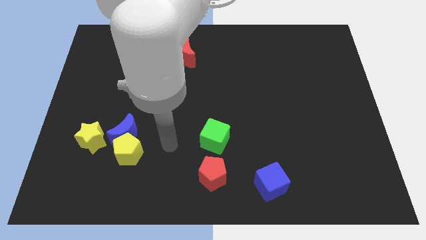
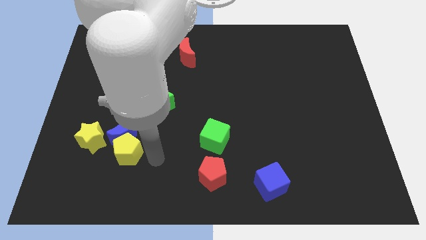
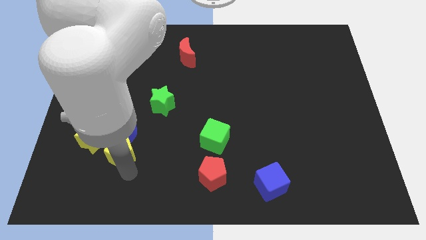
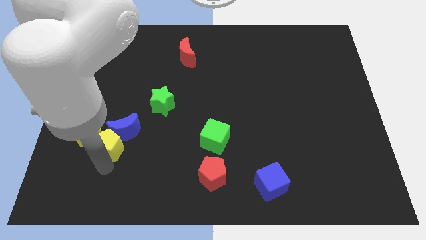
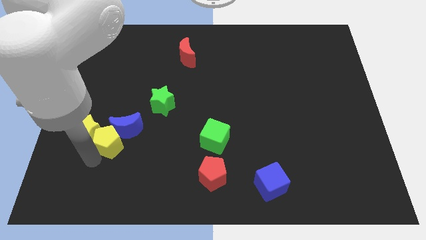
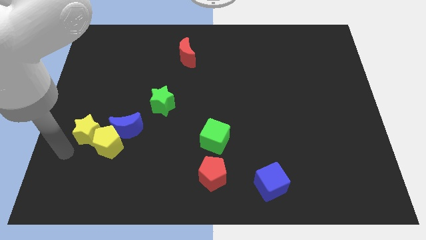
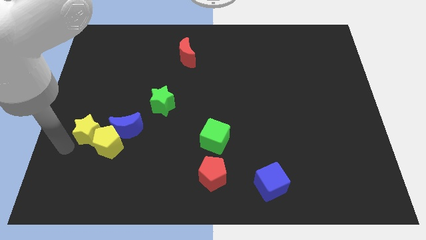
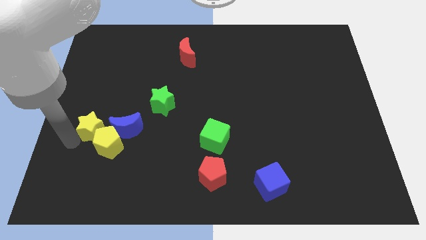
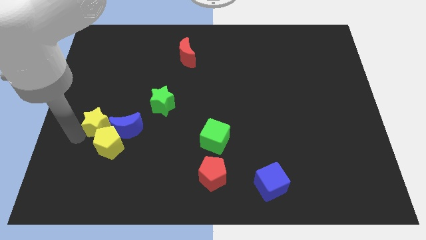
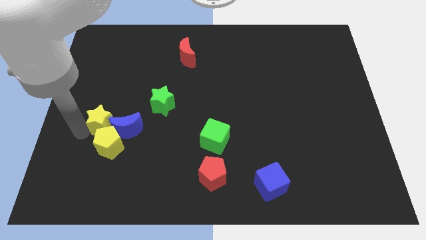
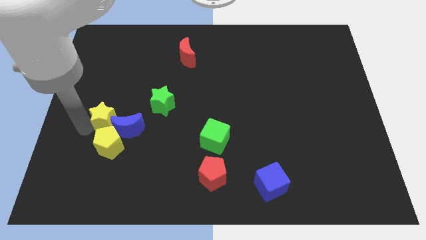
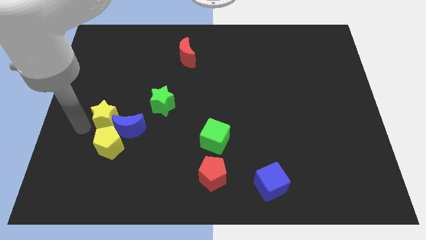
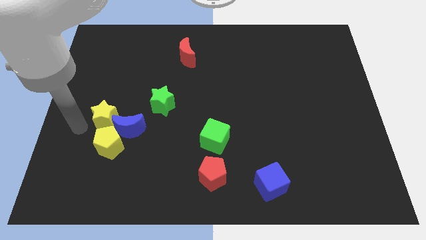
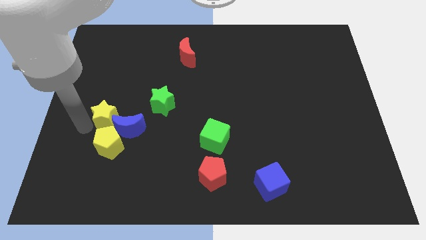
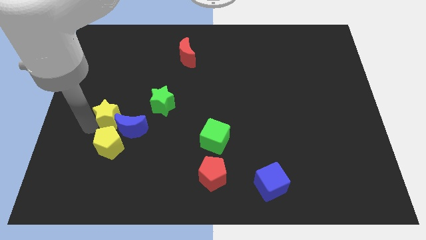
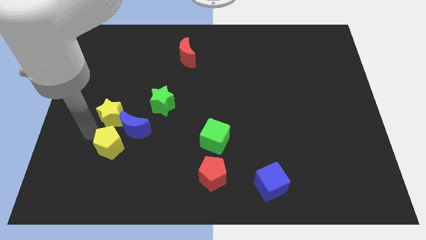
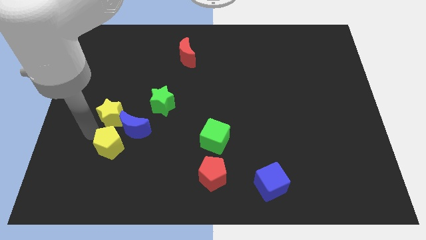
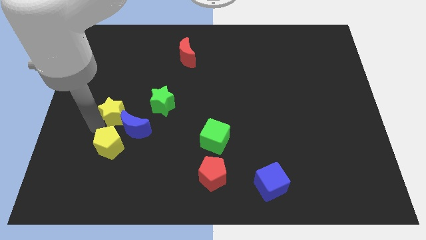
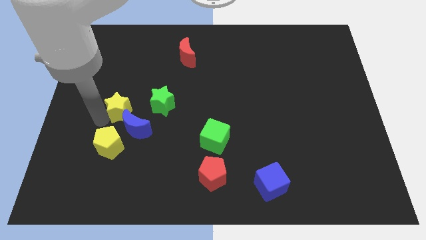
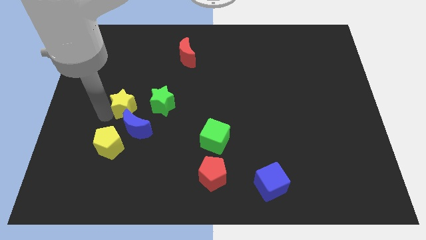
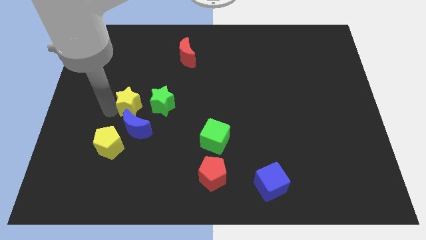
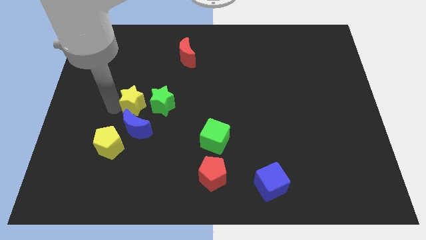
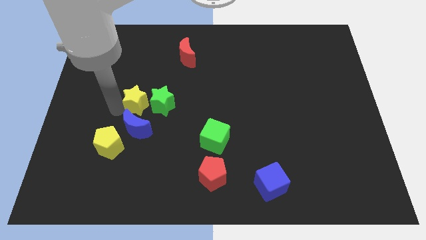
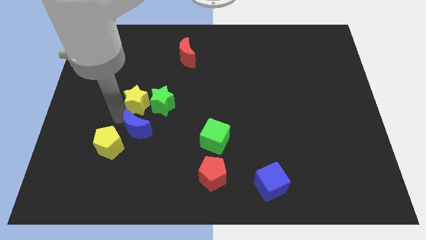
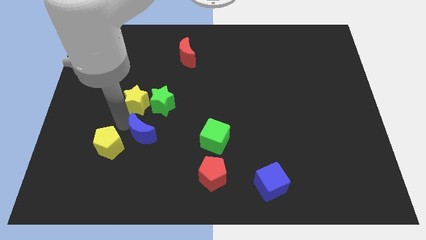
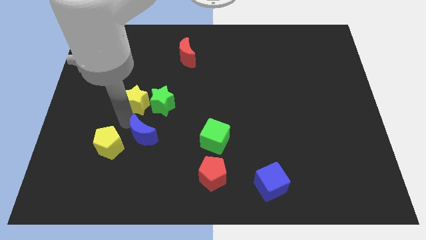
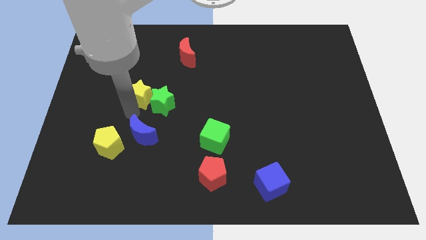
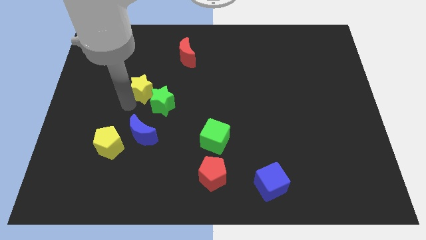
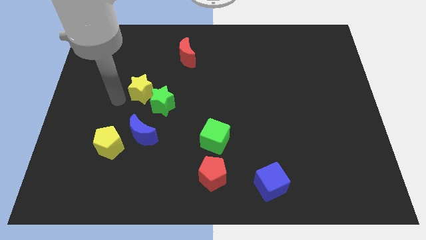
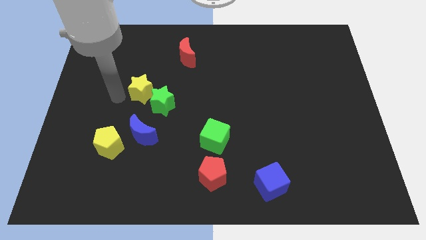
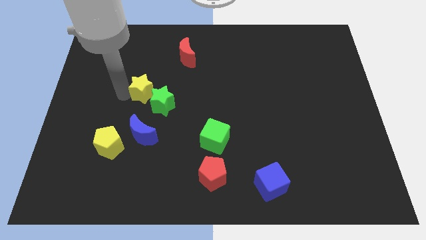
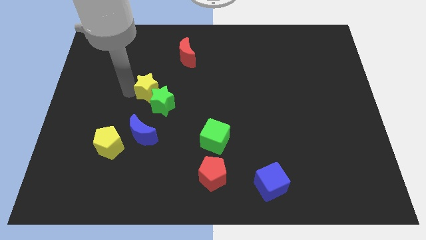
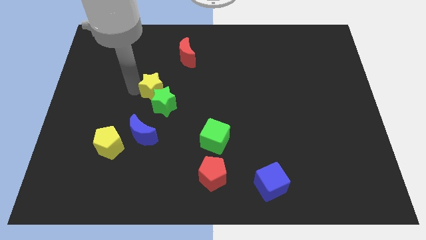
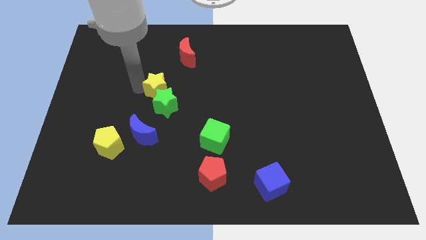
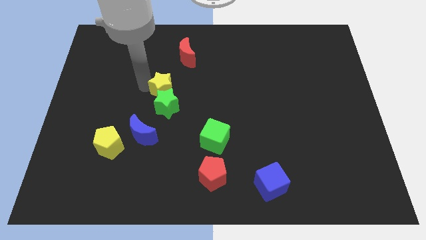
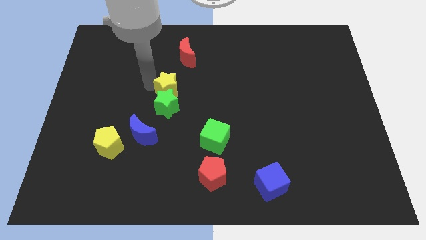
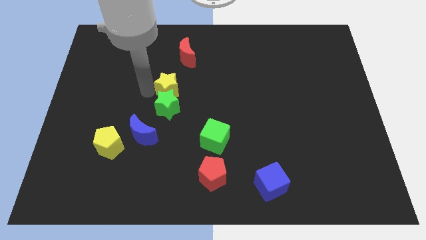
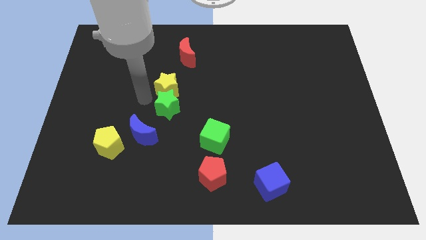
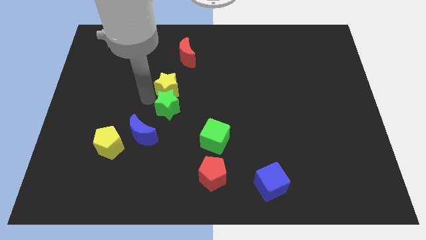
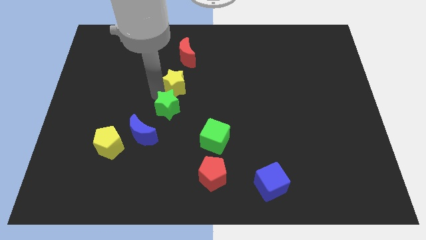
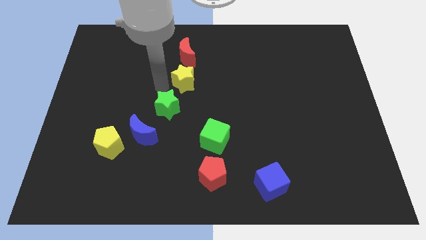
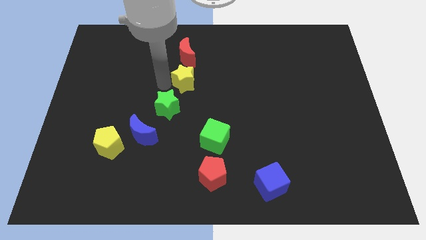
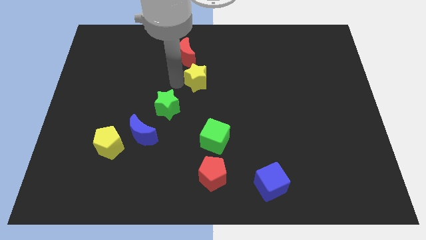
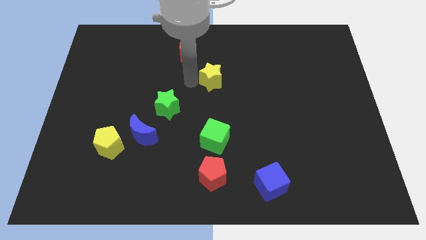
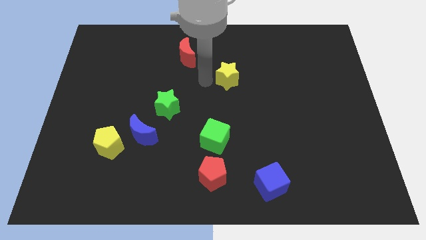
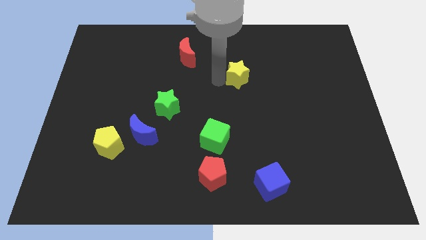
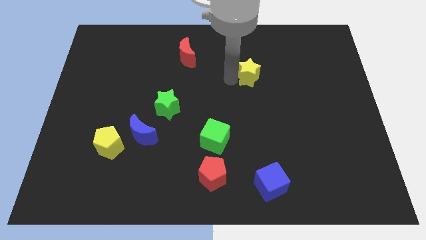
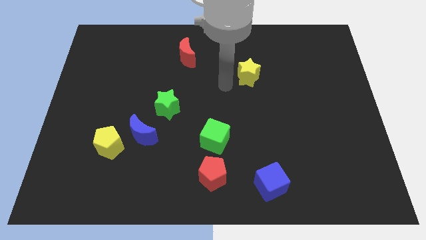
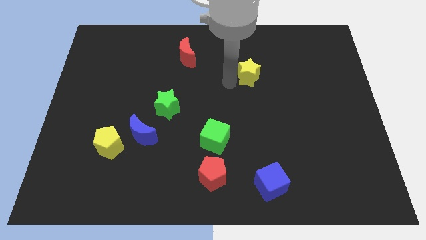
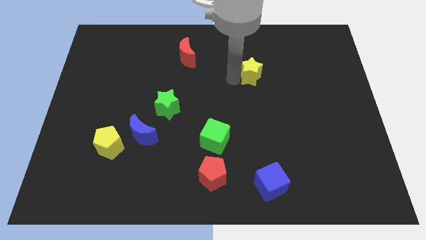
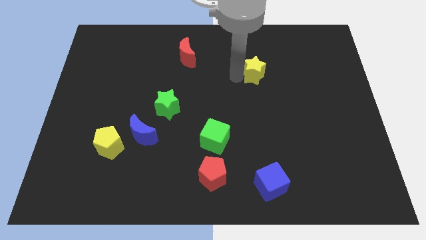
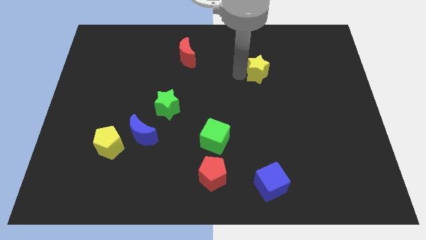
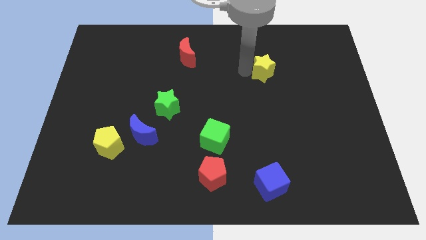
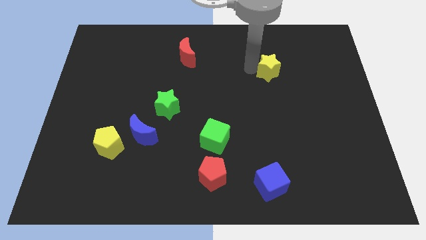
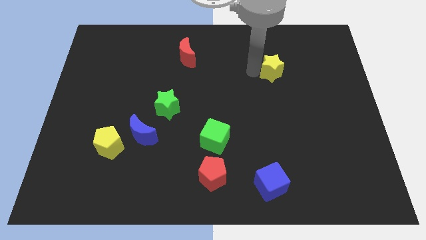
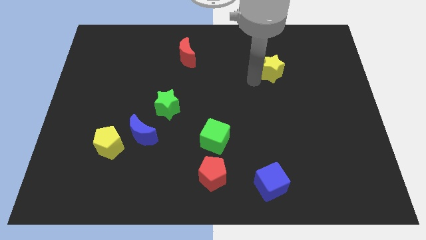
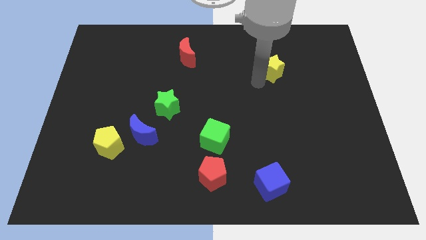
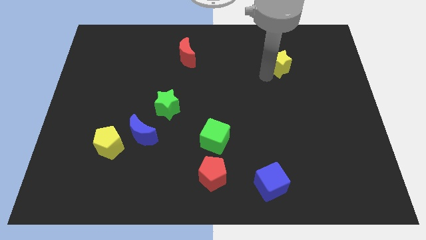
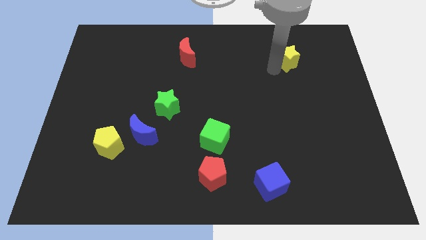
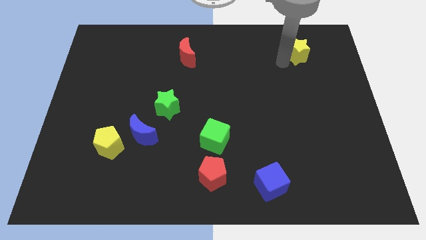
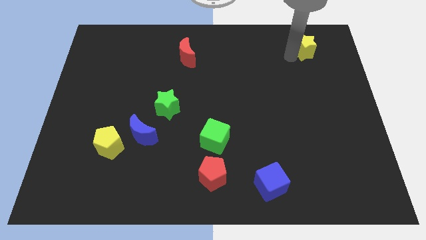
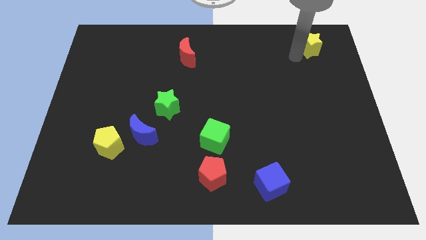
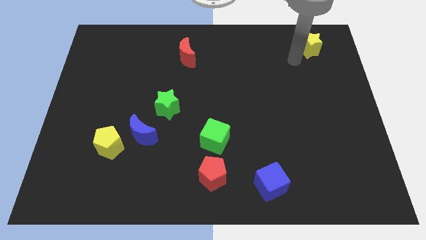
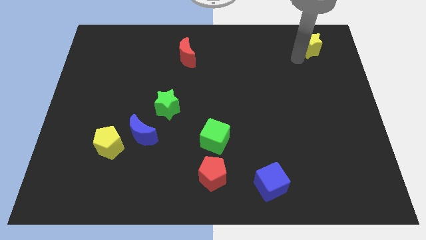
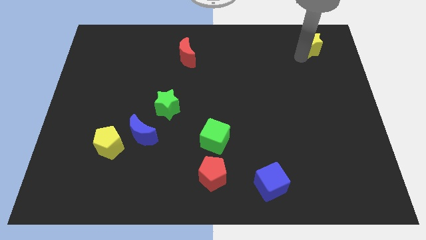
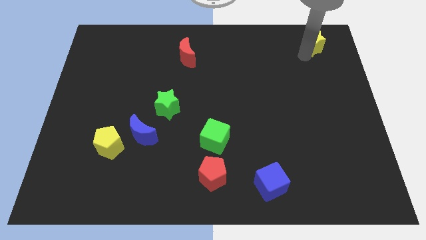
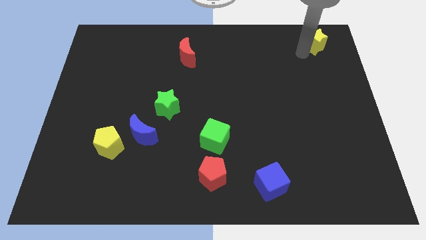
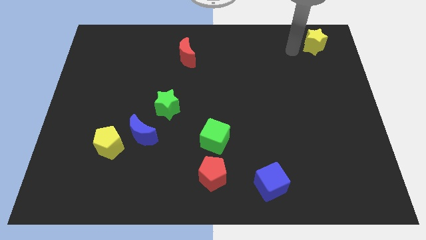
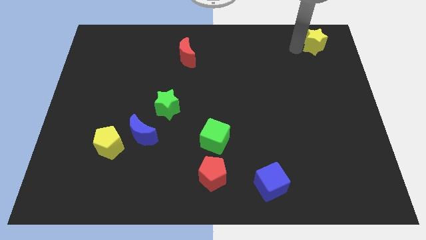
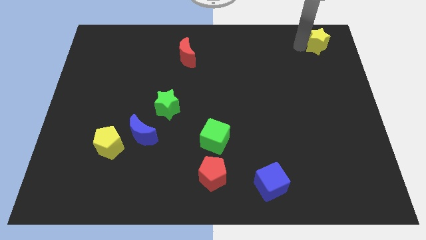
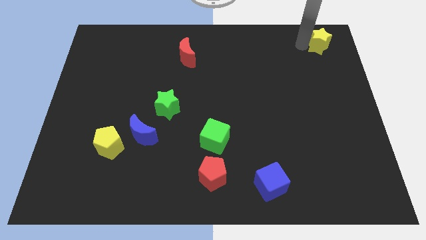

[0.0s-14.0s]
put the yellow star to the upper right corner
